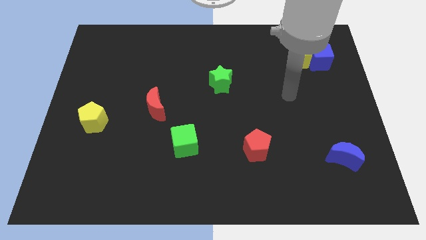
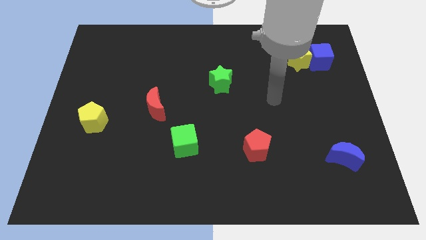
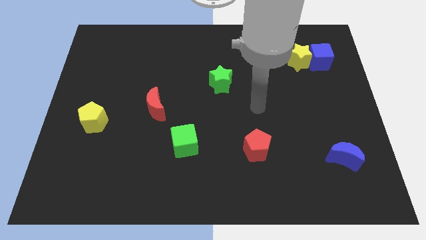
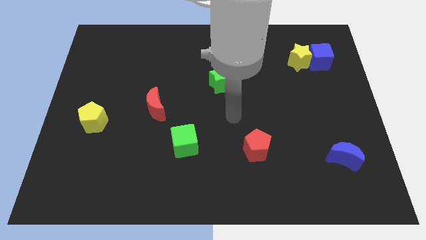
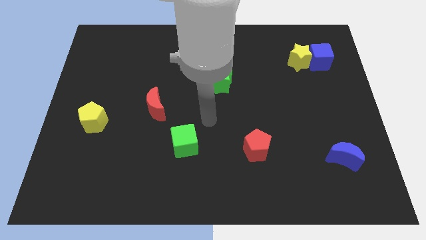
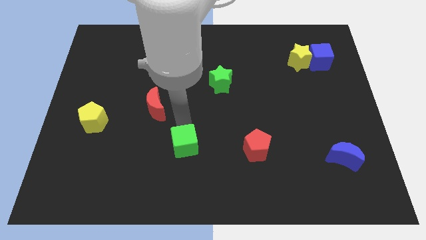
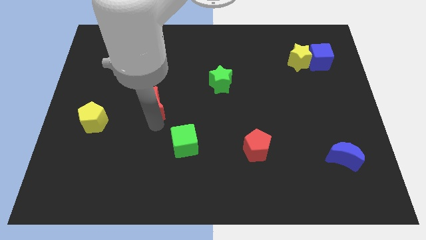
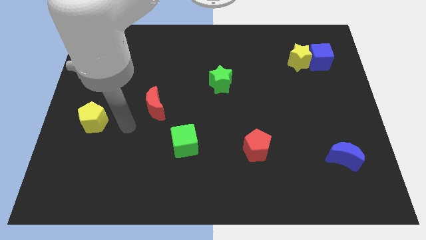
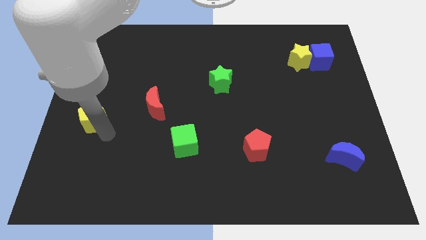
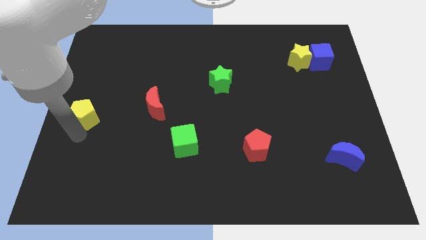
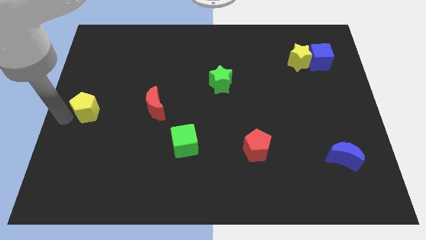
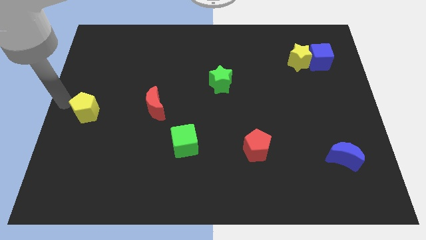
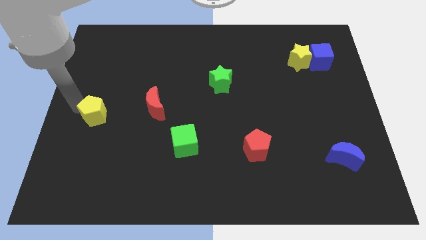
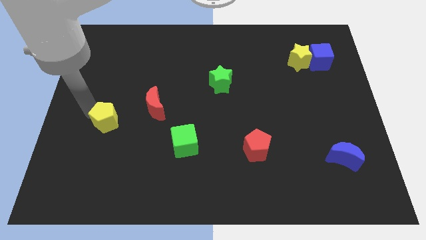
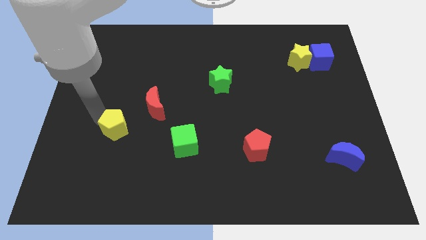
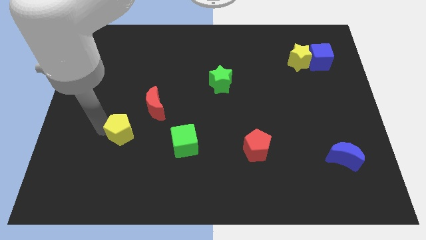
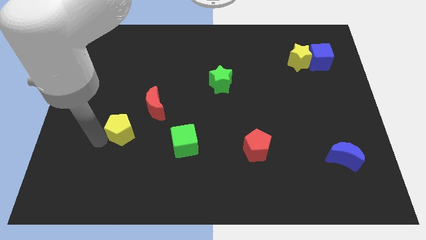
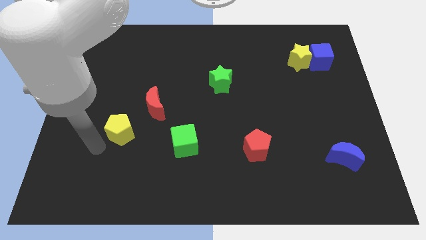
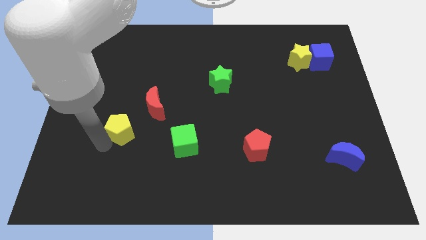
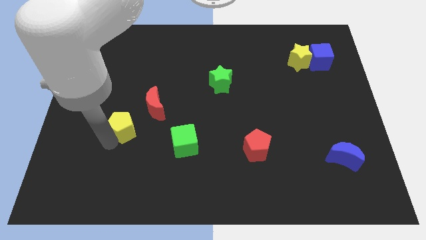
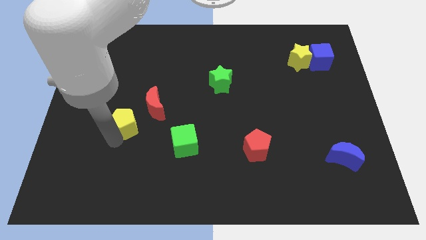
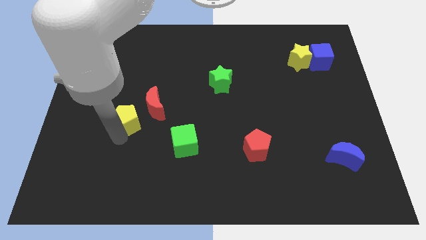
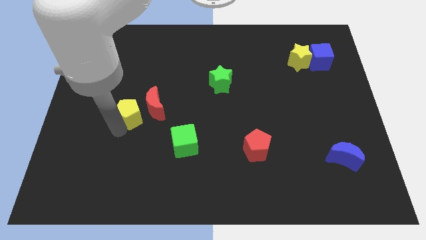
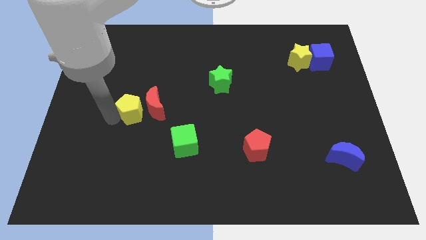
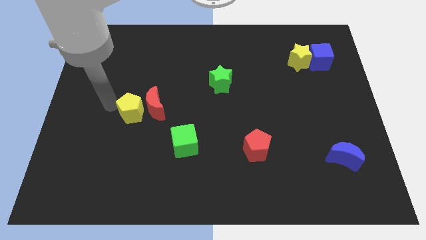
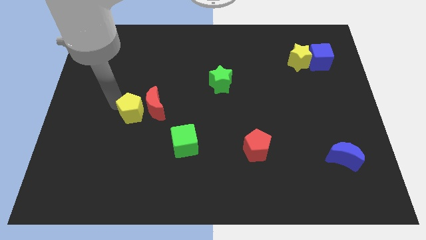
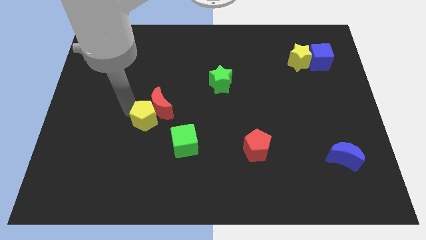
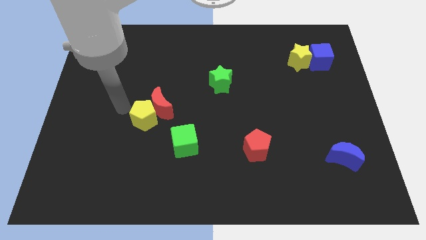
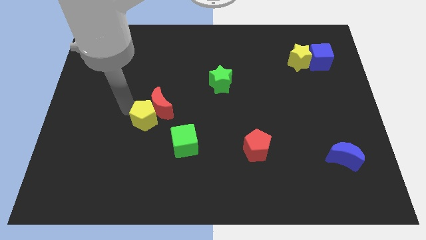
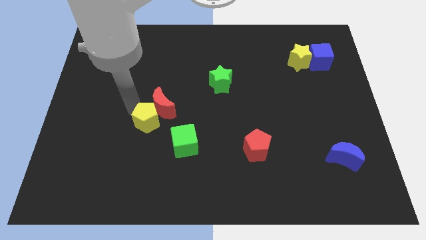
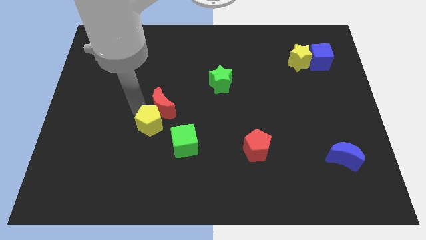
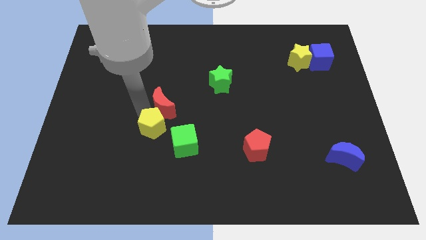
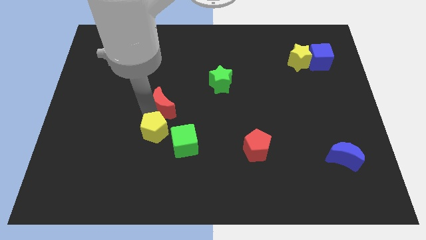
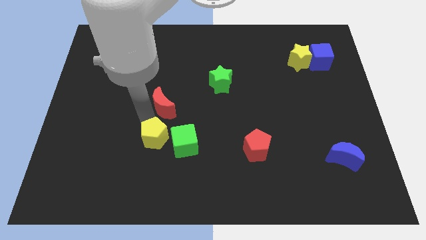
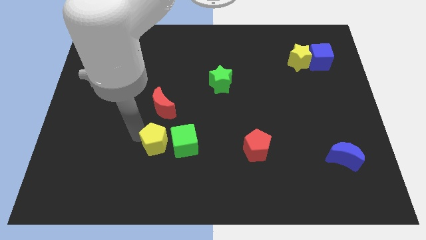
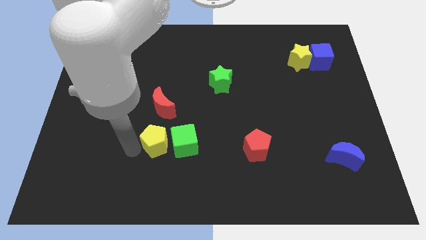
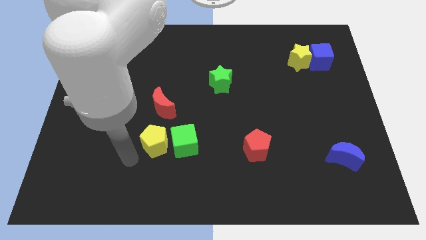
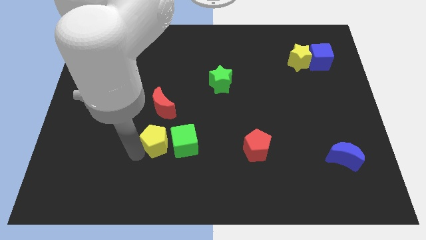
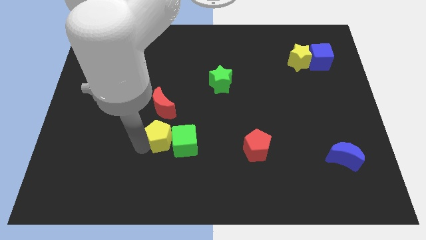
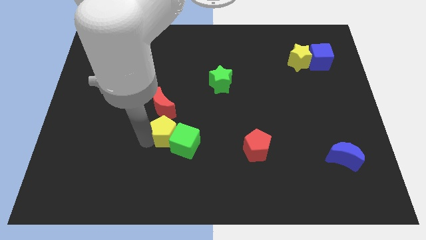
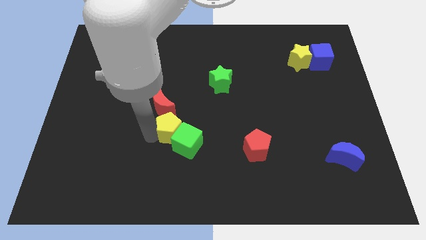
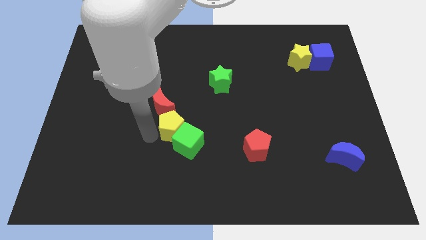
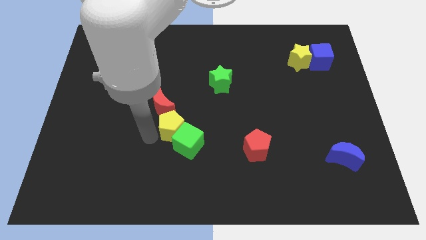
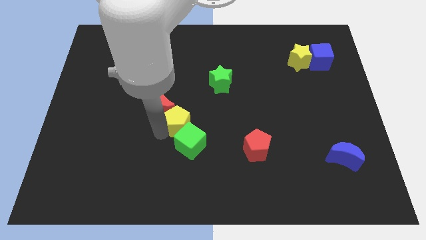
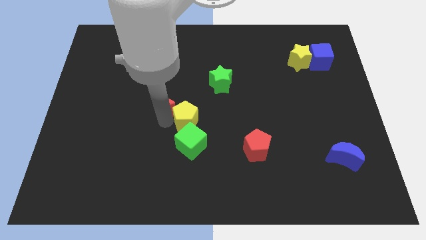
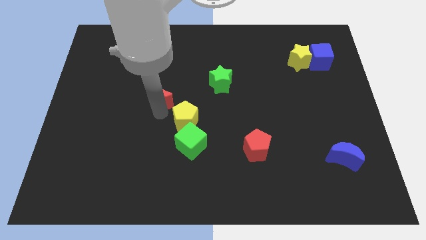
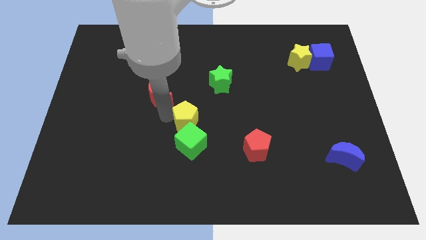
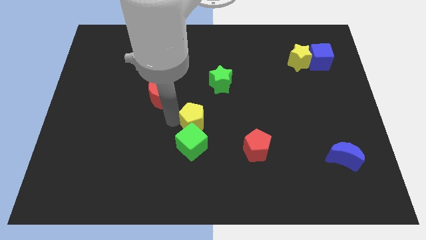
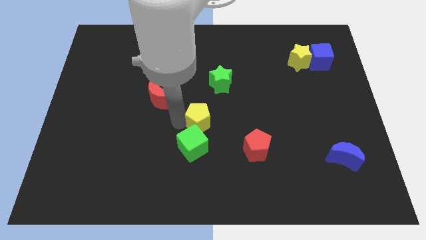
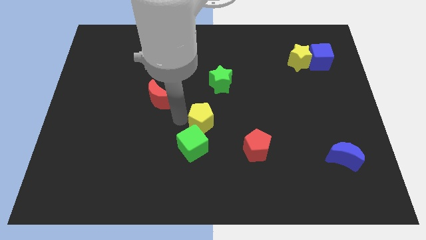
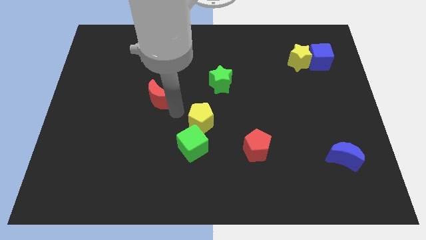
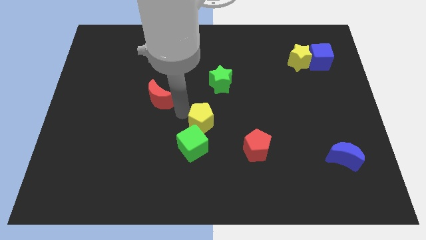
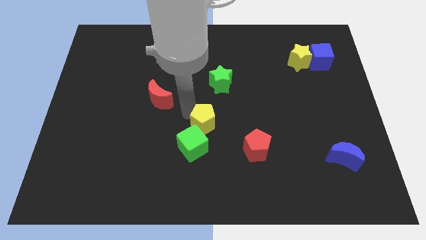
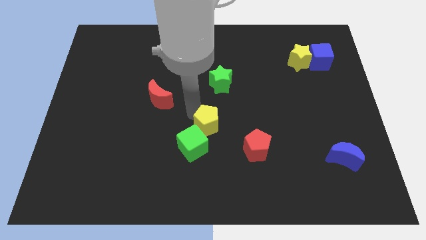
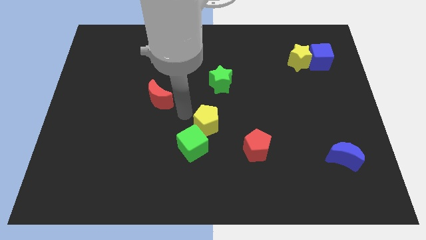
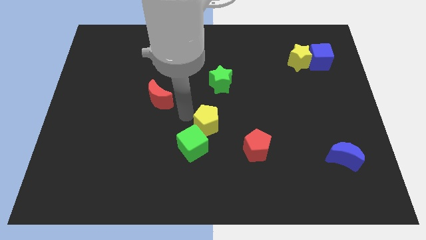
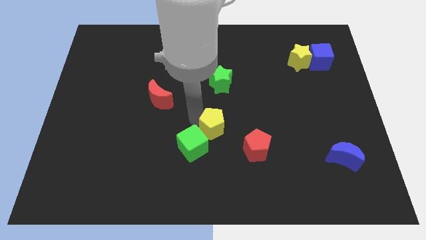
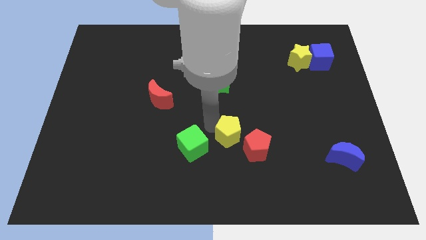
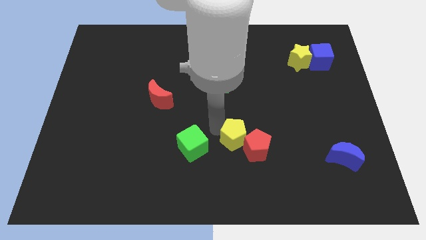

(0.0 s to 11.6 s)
put the yellow pentagon towards the red pentagon

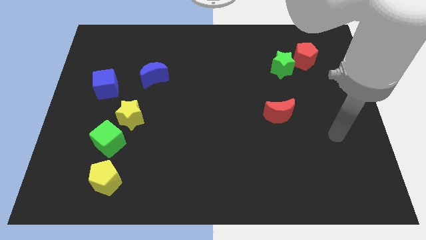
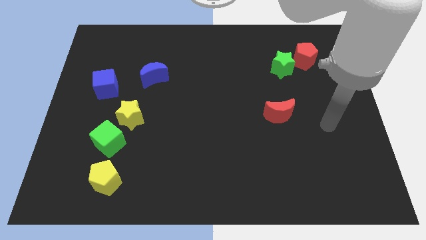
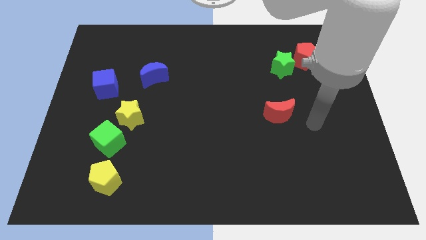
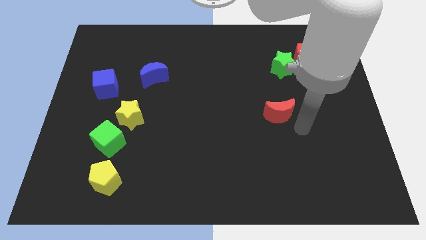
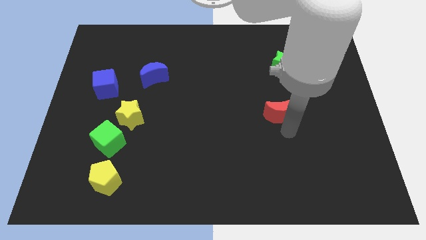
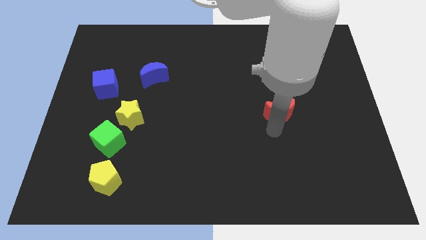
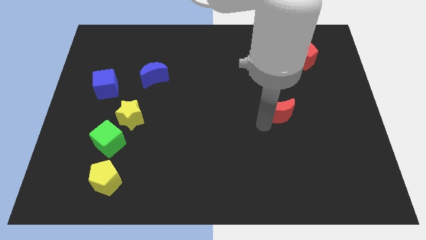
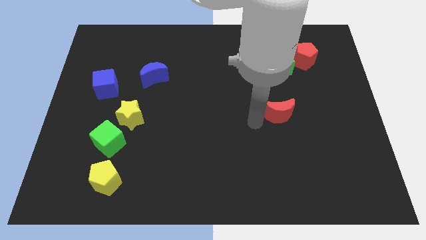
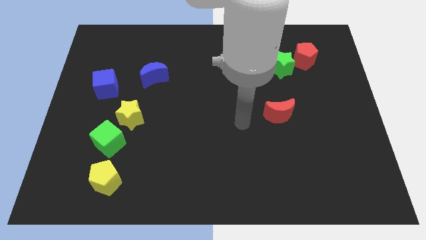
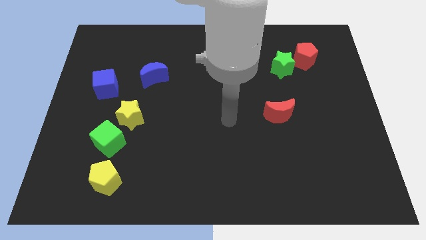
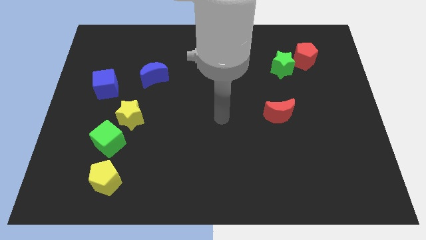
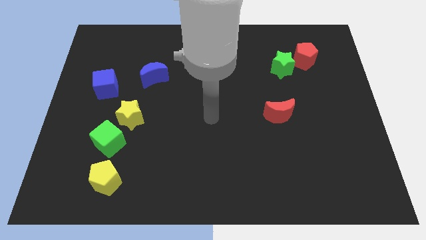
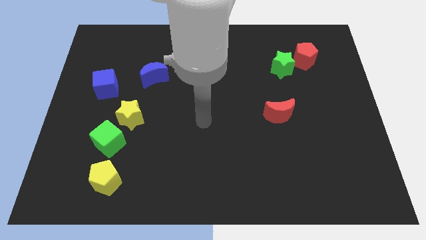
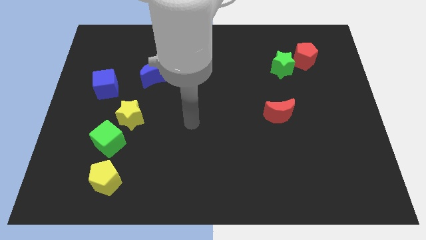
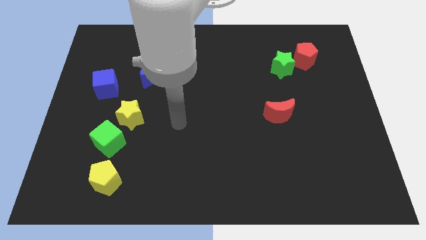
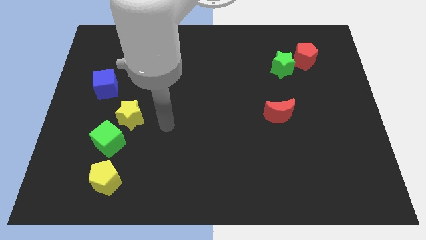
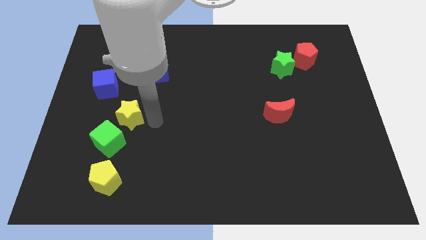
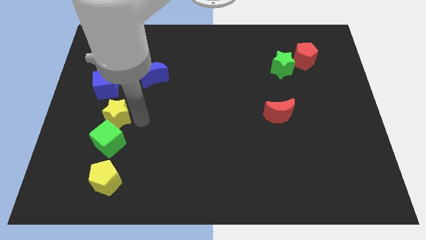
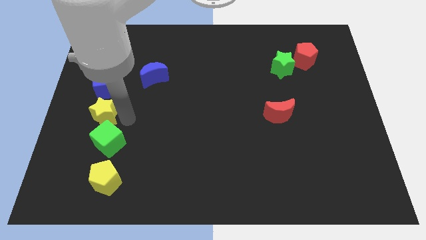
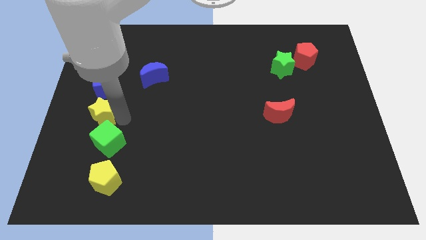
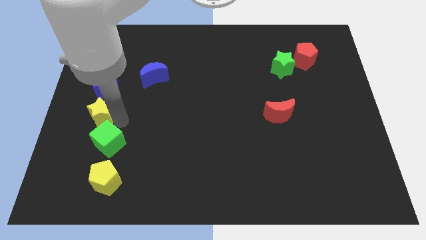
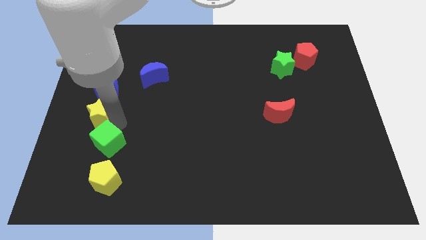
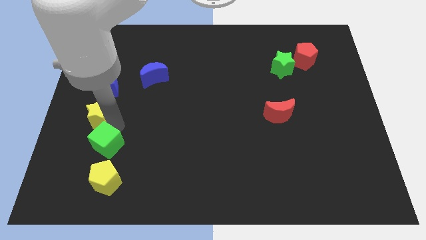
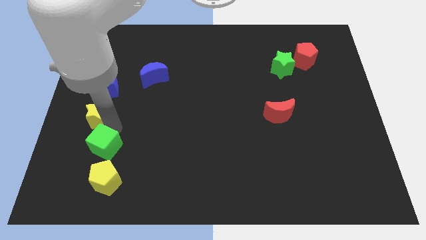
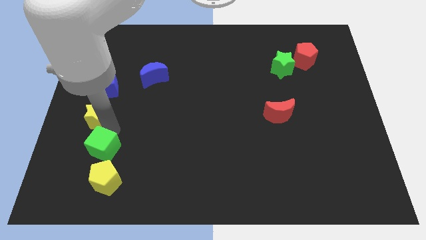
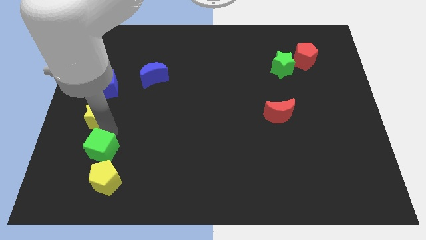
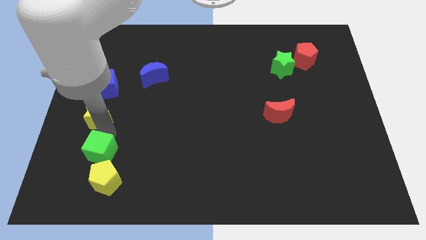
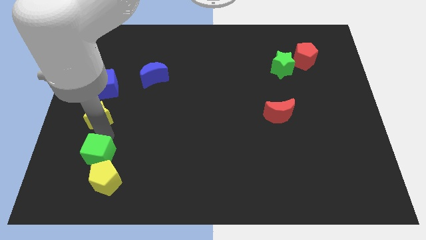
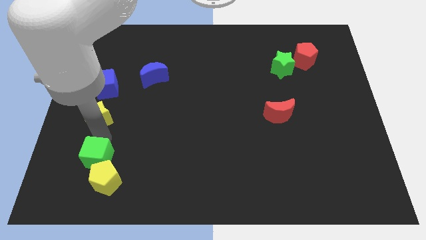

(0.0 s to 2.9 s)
put the green cube to the yellow pentagon
